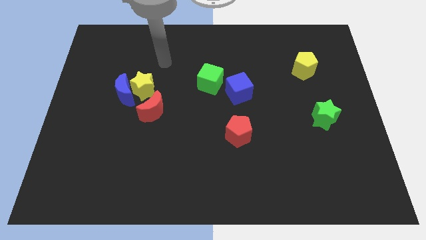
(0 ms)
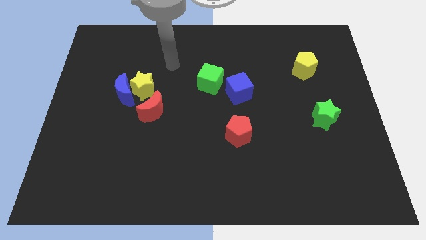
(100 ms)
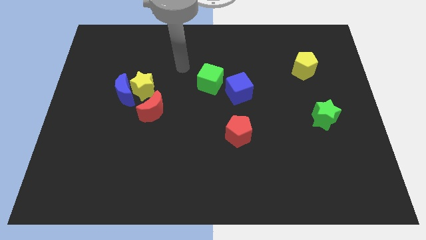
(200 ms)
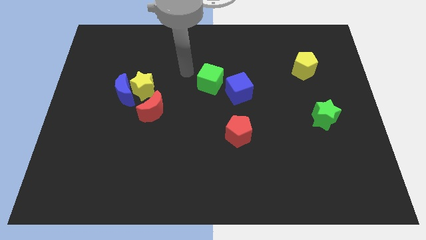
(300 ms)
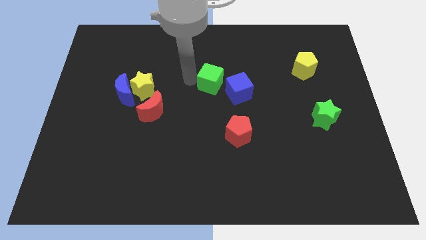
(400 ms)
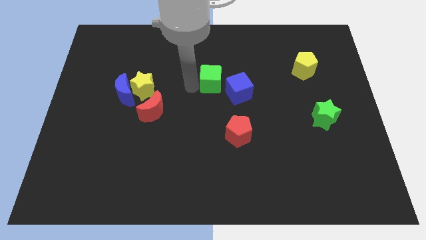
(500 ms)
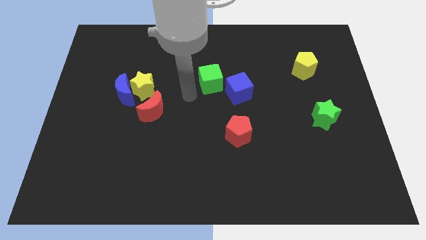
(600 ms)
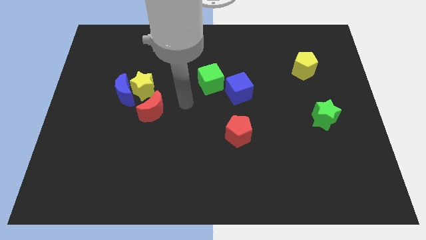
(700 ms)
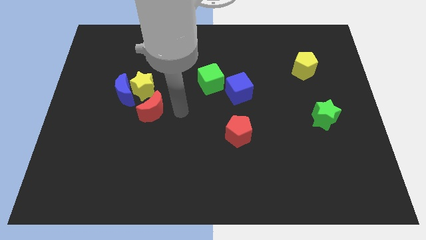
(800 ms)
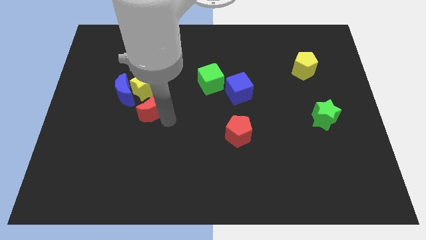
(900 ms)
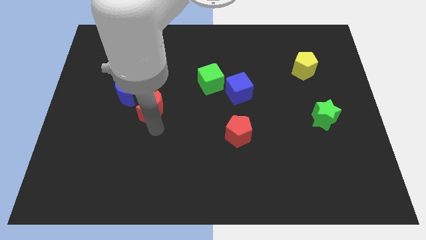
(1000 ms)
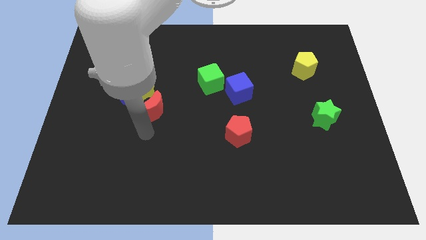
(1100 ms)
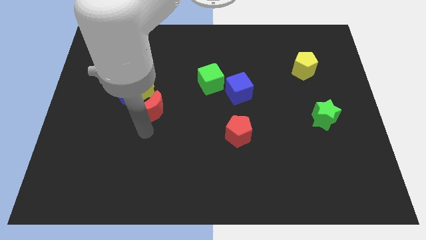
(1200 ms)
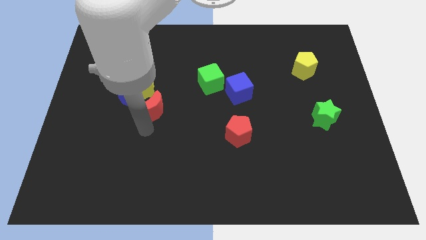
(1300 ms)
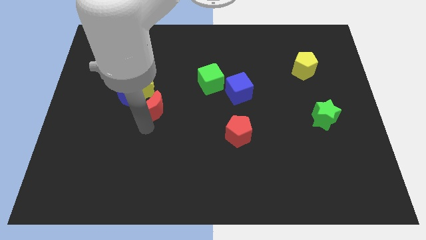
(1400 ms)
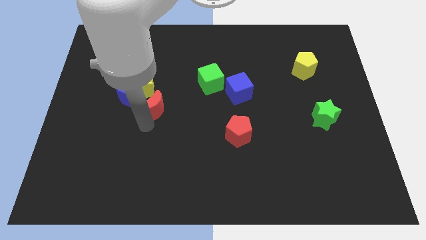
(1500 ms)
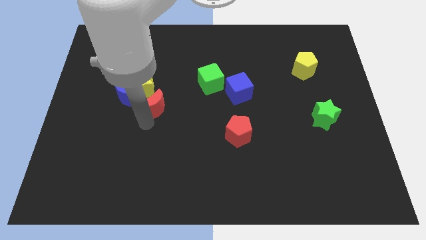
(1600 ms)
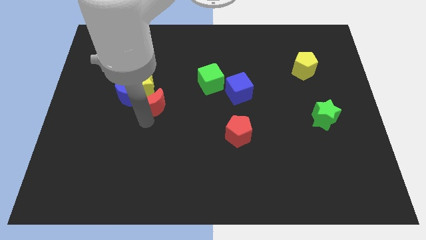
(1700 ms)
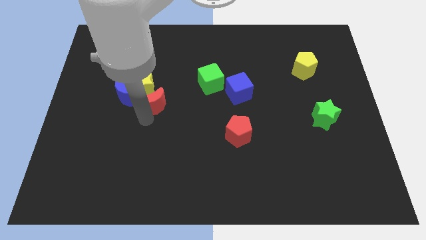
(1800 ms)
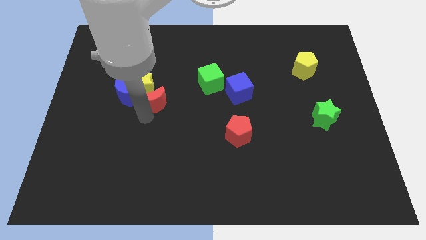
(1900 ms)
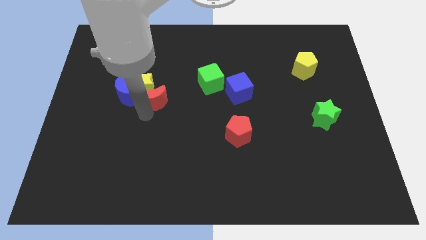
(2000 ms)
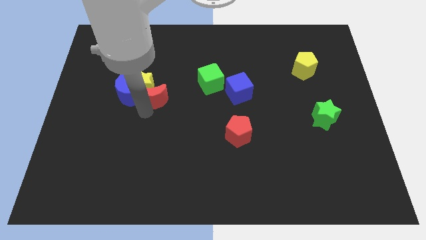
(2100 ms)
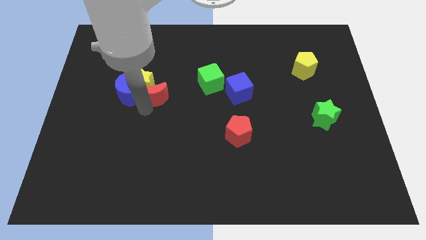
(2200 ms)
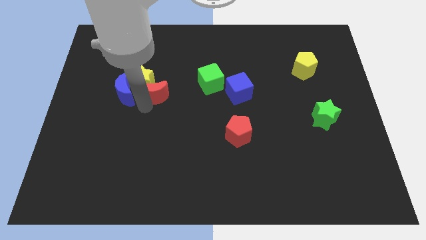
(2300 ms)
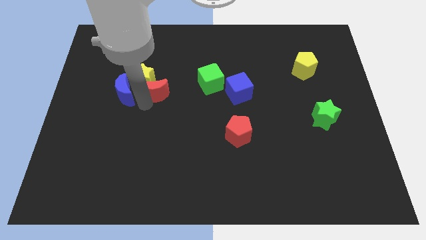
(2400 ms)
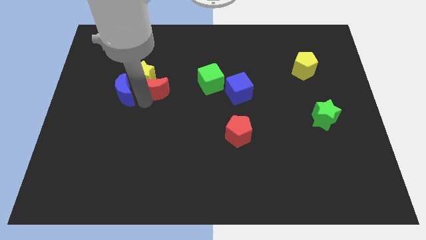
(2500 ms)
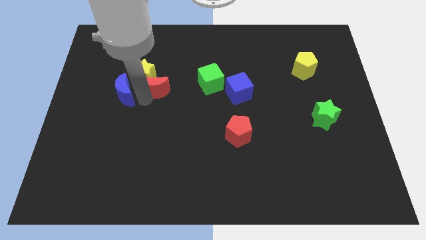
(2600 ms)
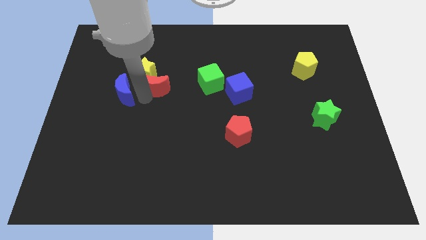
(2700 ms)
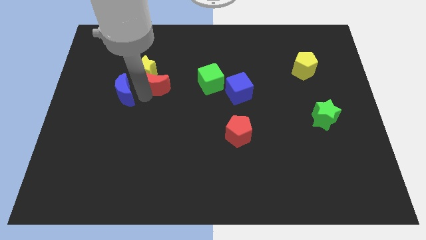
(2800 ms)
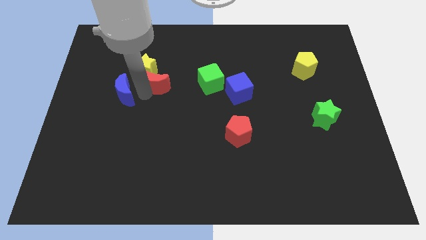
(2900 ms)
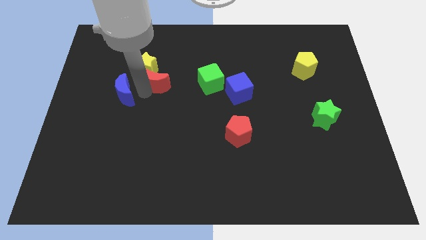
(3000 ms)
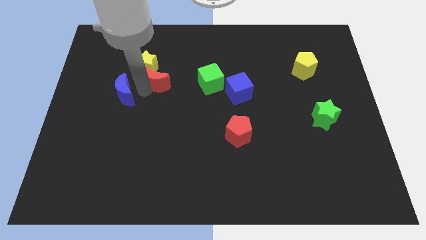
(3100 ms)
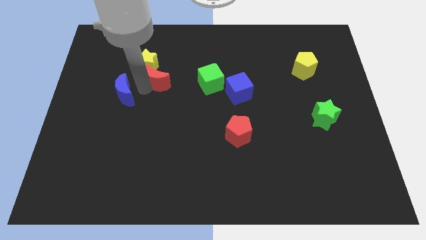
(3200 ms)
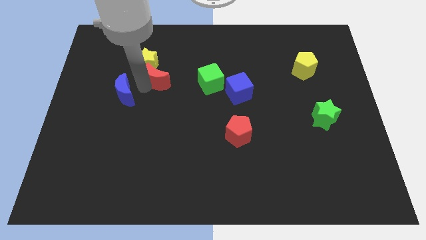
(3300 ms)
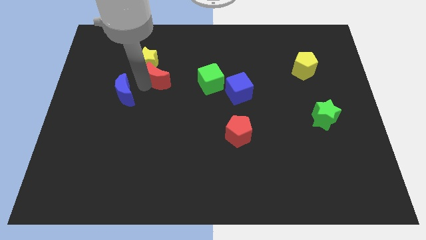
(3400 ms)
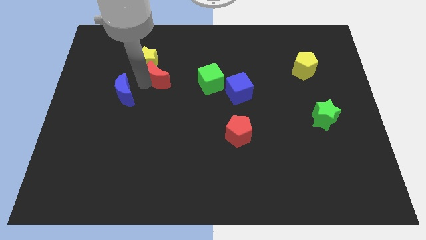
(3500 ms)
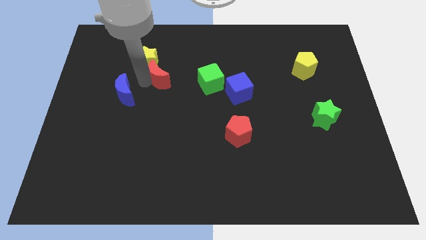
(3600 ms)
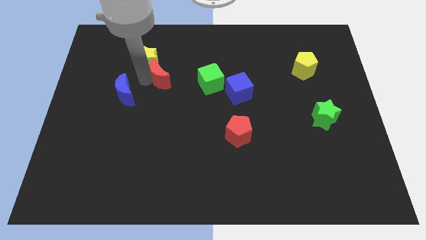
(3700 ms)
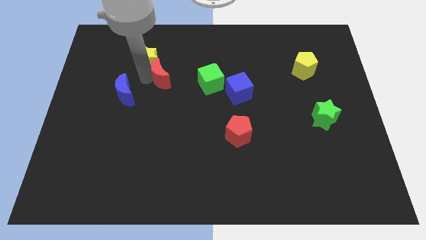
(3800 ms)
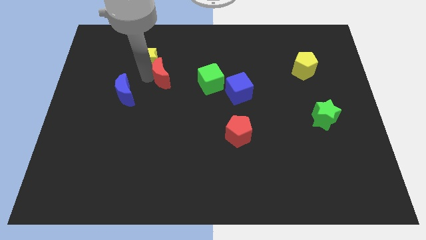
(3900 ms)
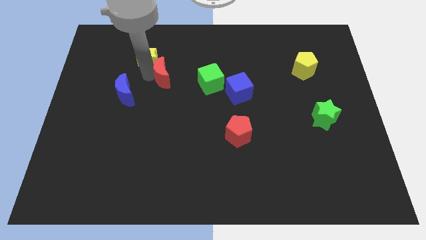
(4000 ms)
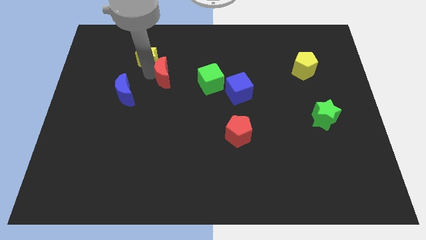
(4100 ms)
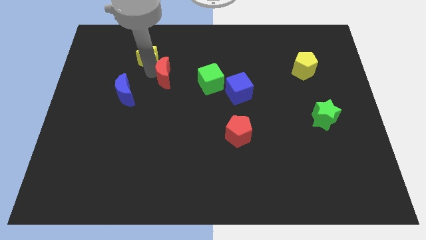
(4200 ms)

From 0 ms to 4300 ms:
push the red moon up and to the right somewhat

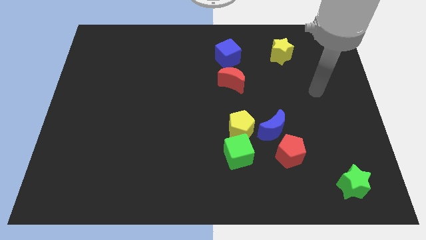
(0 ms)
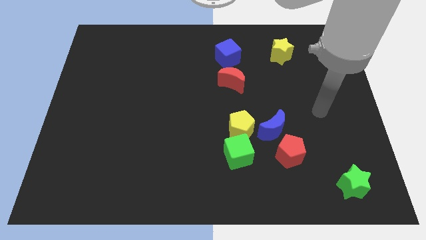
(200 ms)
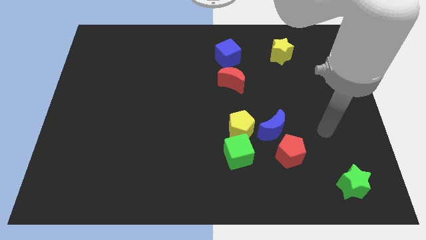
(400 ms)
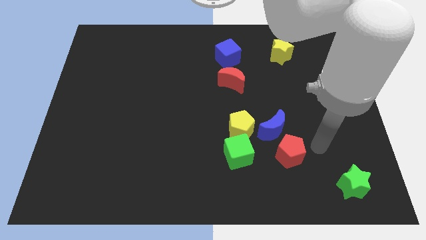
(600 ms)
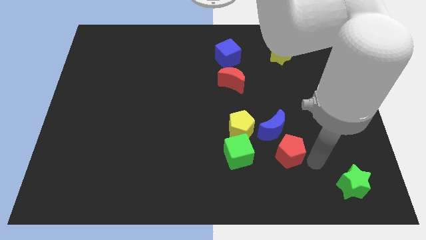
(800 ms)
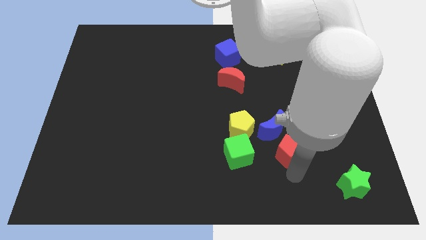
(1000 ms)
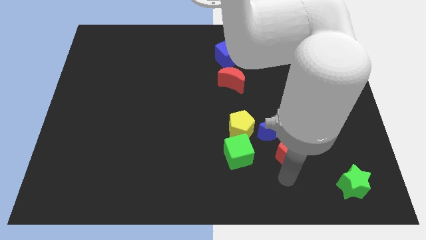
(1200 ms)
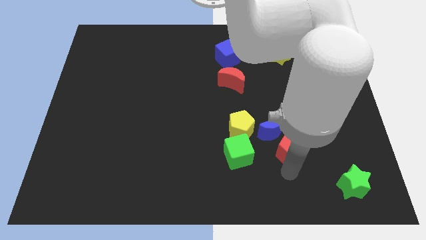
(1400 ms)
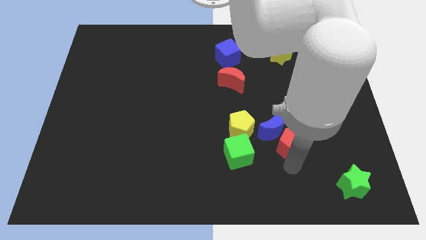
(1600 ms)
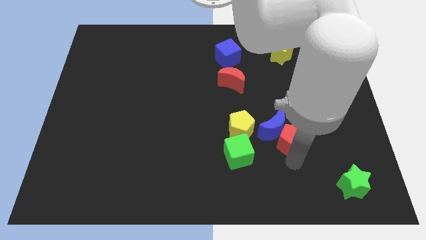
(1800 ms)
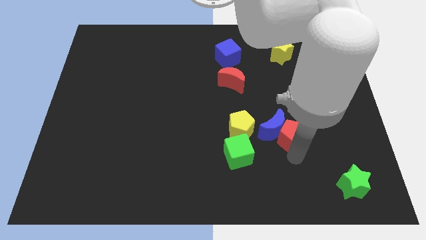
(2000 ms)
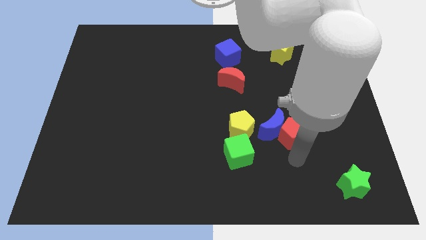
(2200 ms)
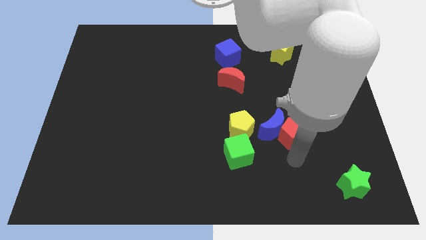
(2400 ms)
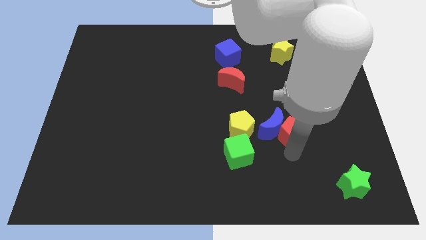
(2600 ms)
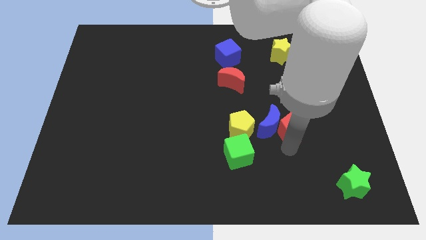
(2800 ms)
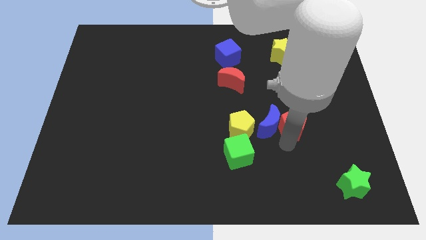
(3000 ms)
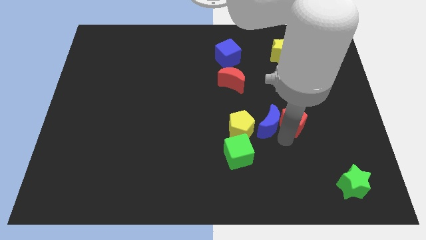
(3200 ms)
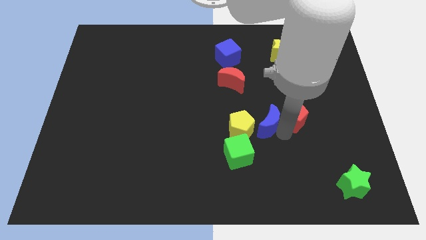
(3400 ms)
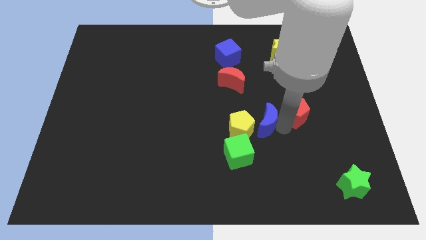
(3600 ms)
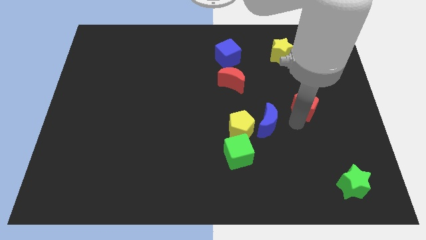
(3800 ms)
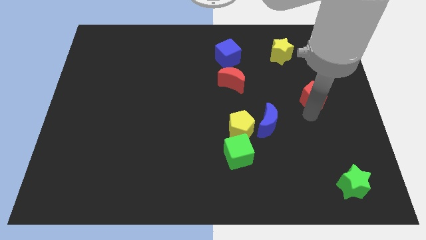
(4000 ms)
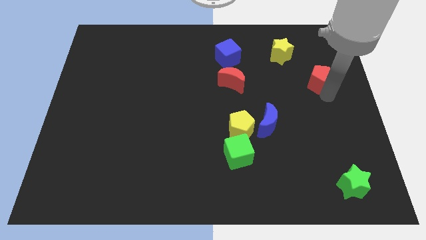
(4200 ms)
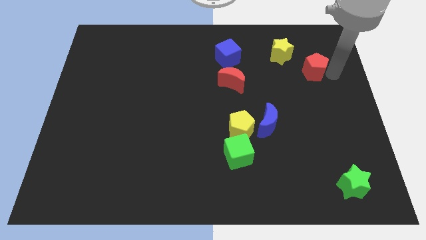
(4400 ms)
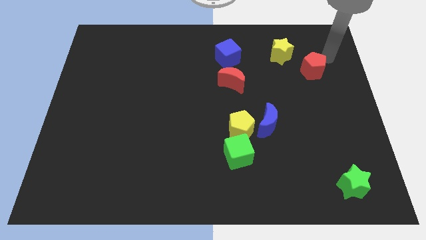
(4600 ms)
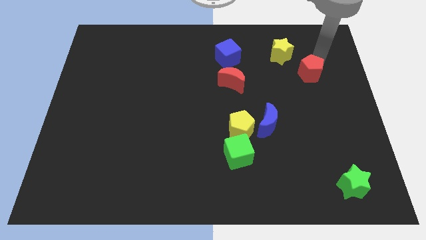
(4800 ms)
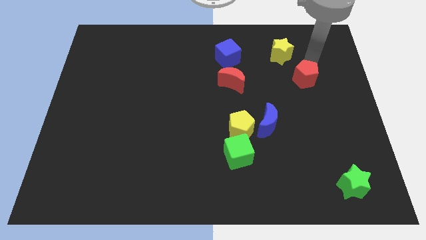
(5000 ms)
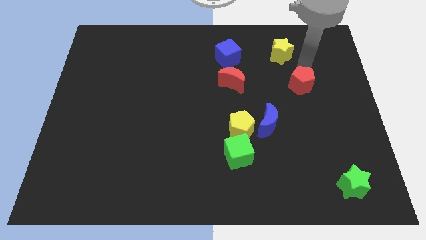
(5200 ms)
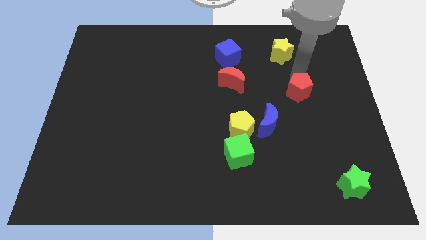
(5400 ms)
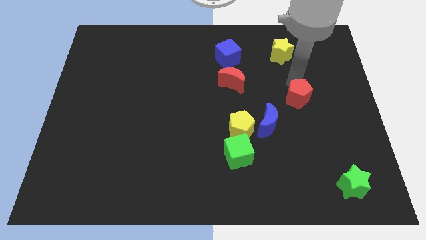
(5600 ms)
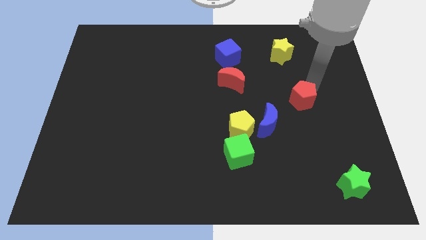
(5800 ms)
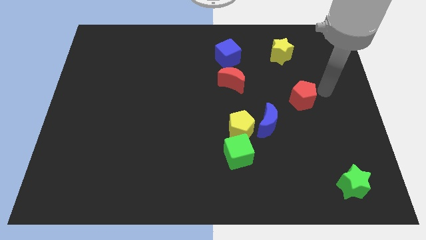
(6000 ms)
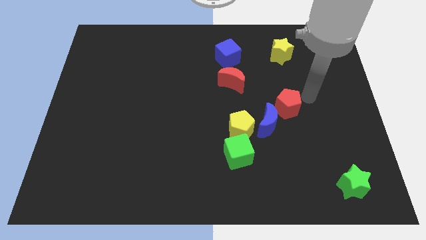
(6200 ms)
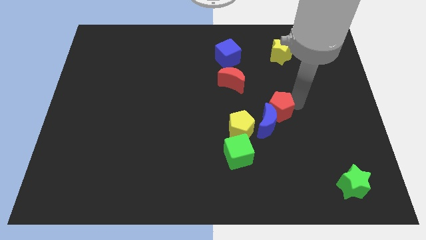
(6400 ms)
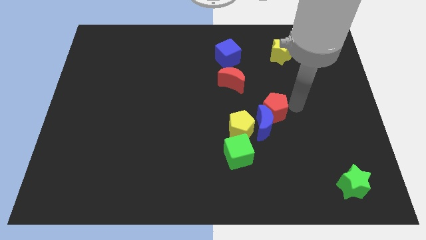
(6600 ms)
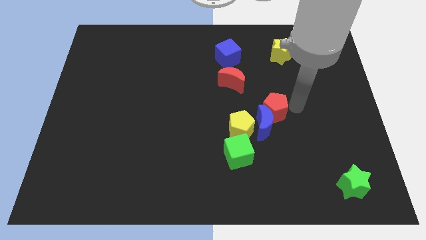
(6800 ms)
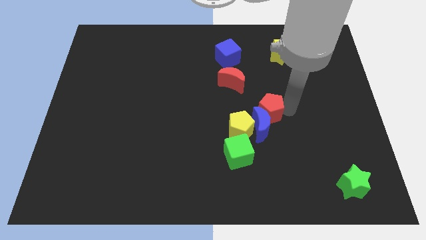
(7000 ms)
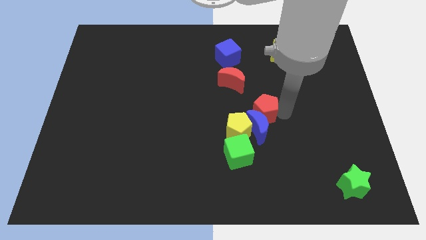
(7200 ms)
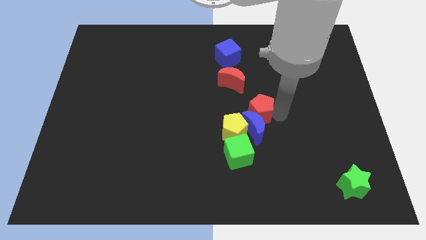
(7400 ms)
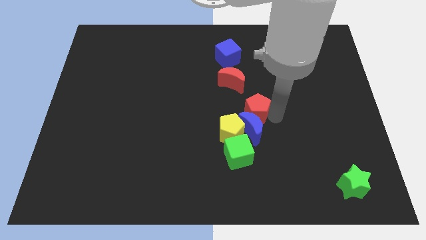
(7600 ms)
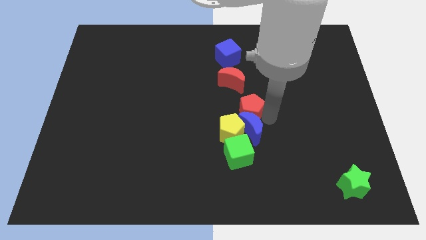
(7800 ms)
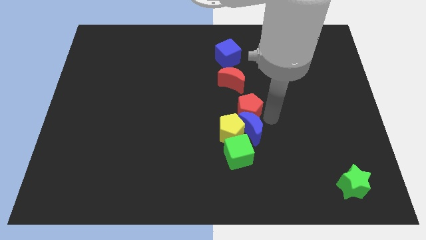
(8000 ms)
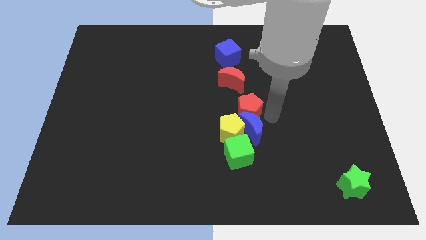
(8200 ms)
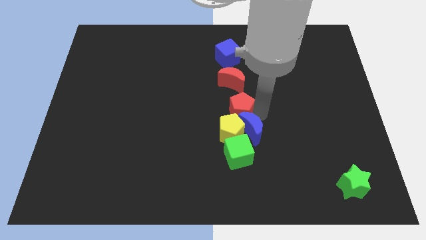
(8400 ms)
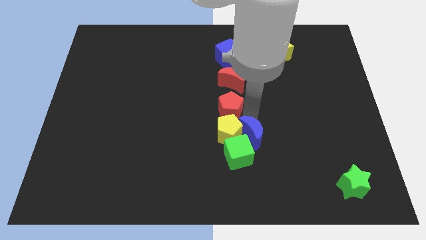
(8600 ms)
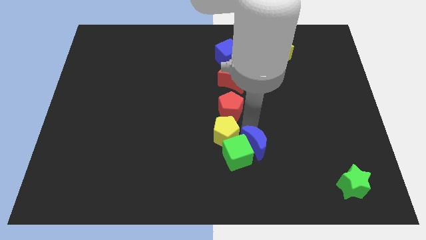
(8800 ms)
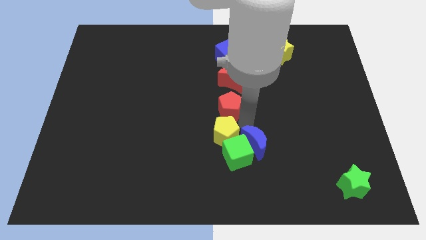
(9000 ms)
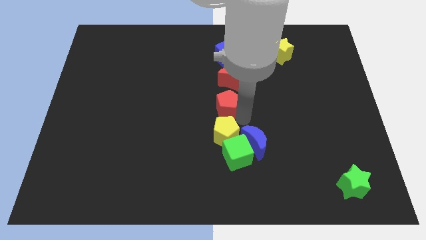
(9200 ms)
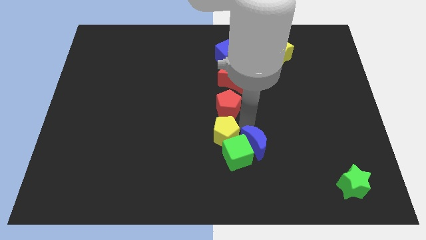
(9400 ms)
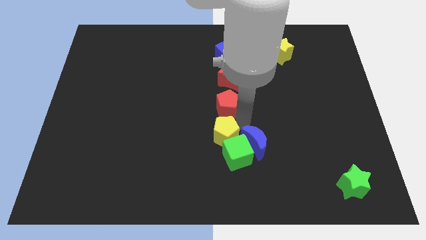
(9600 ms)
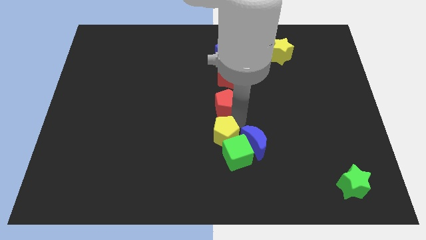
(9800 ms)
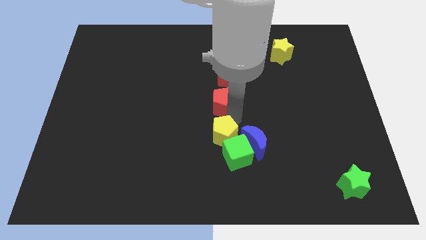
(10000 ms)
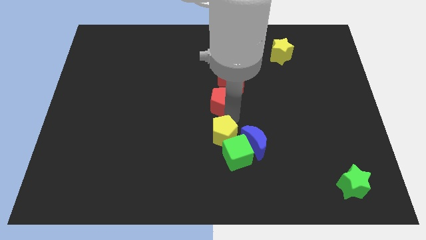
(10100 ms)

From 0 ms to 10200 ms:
slide the red pentagon up and then to the left
